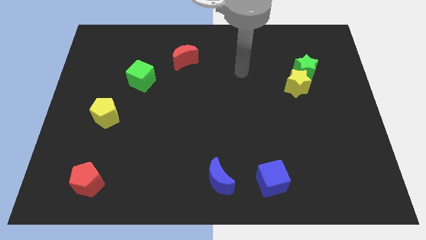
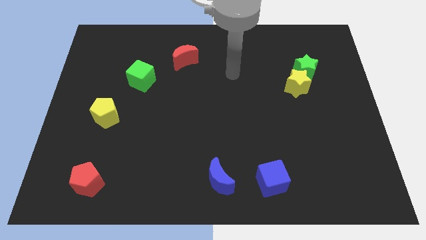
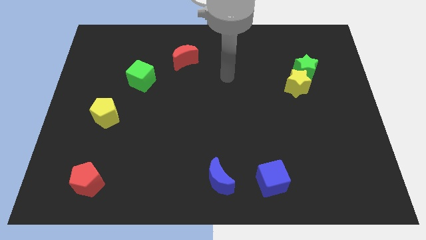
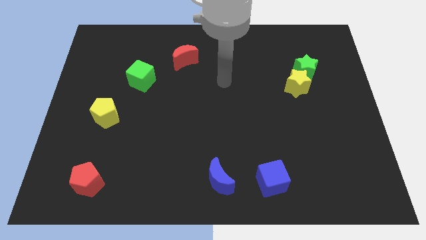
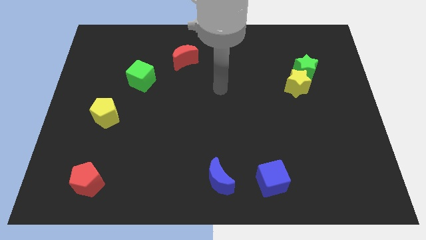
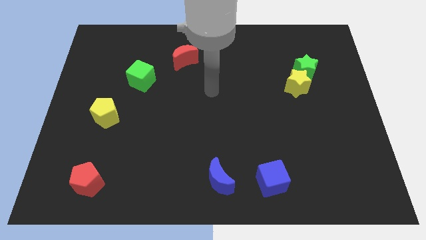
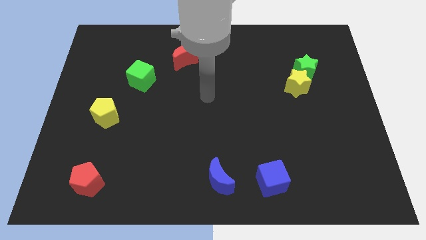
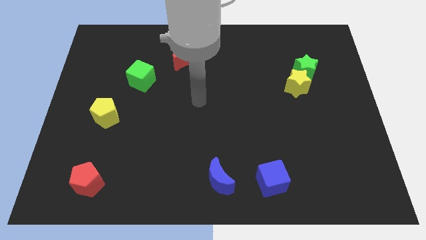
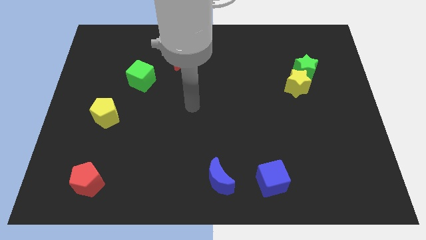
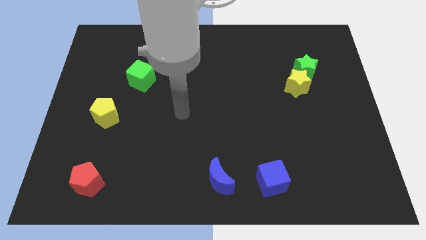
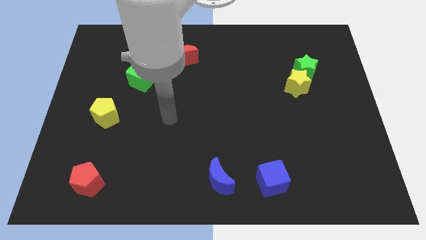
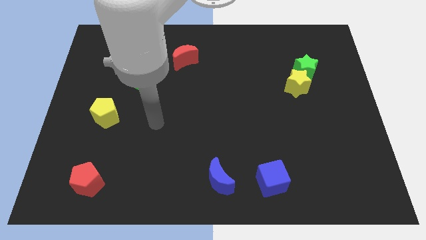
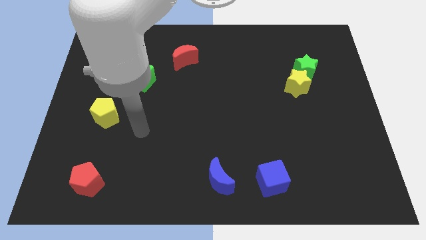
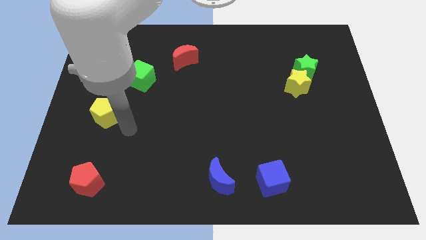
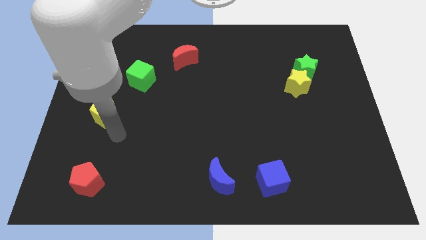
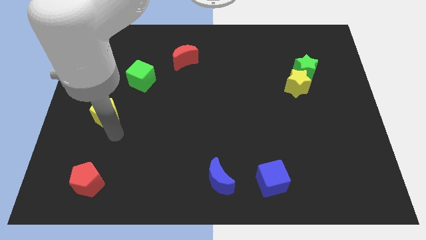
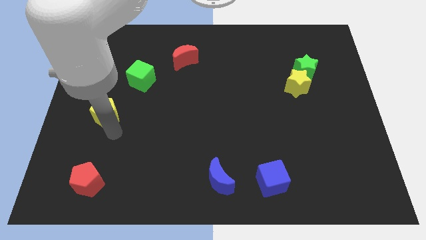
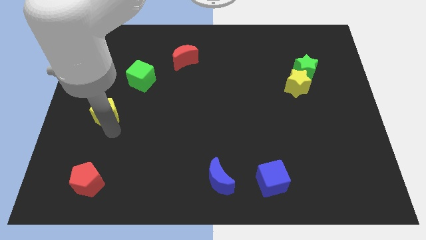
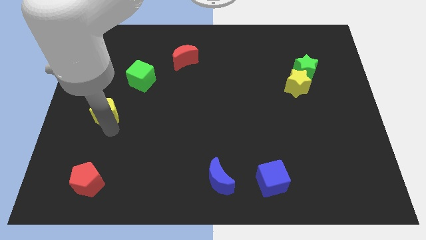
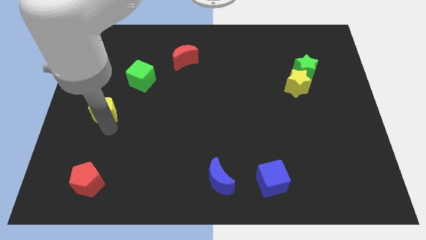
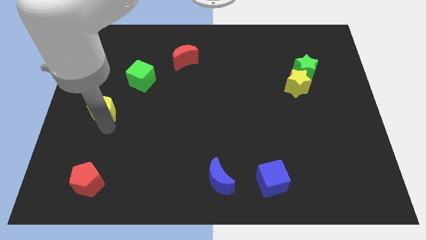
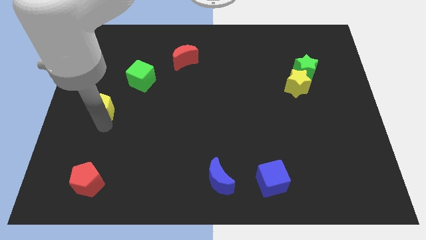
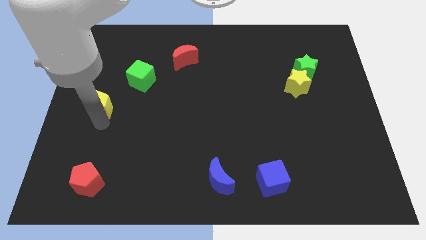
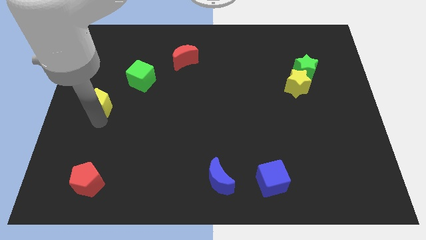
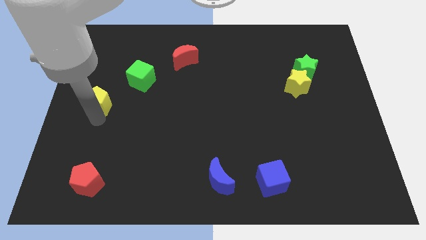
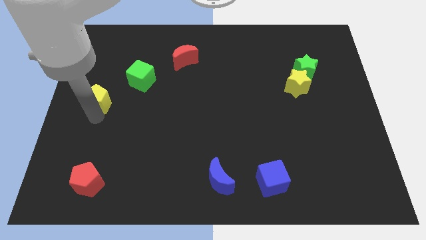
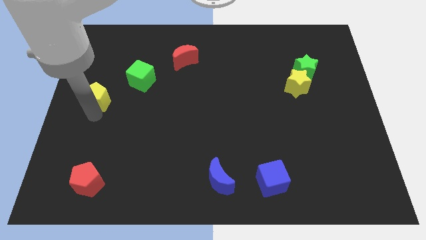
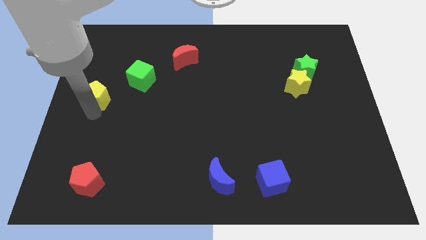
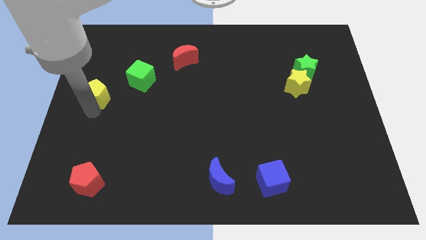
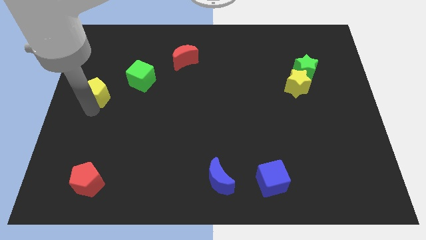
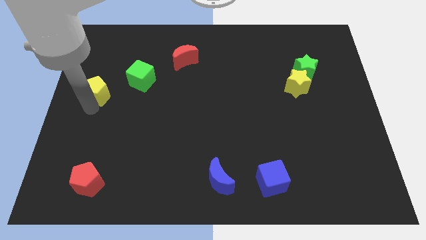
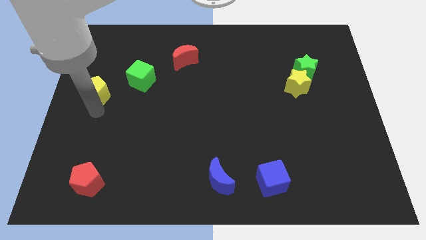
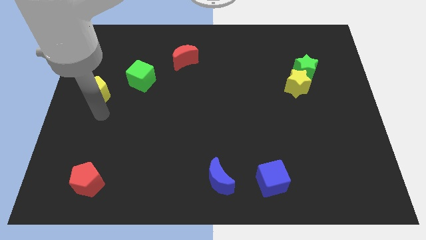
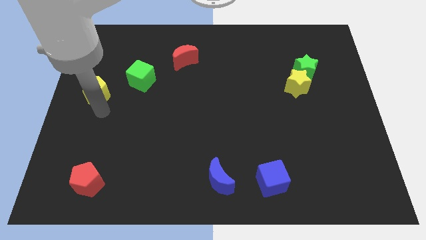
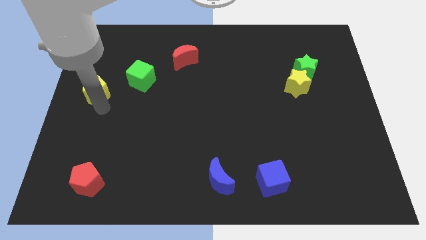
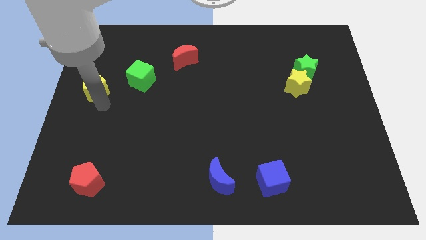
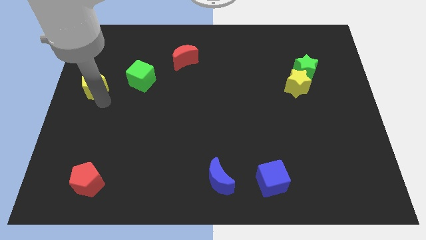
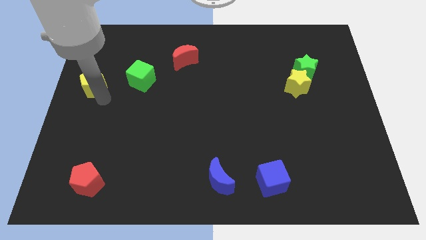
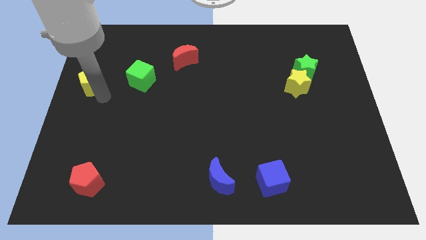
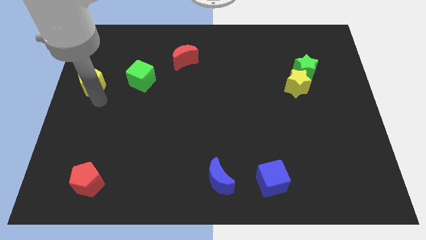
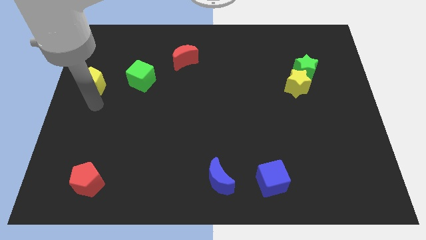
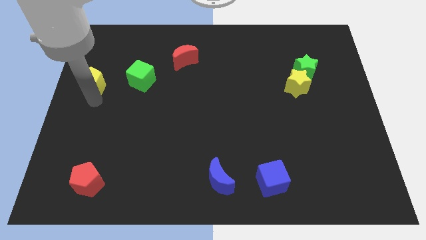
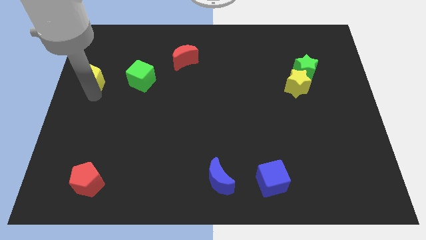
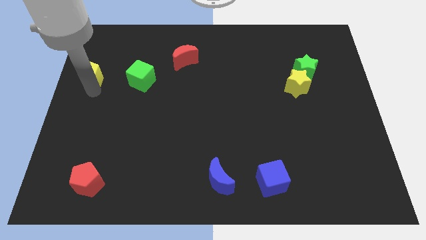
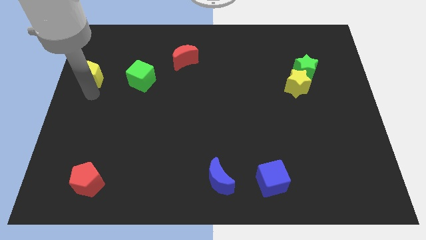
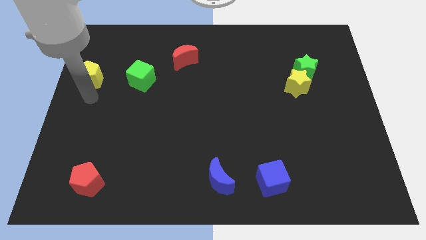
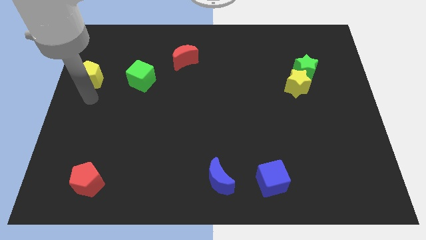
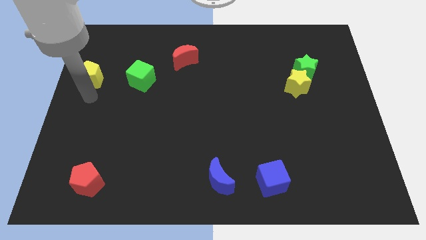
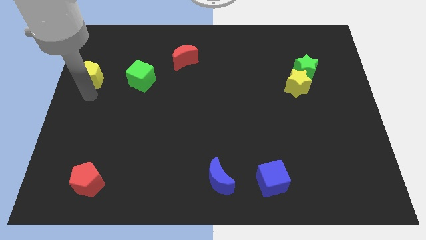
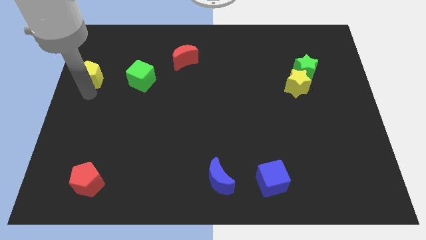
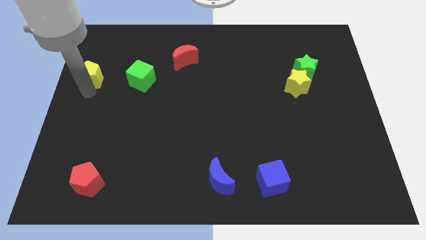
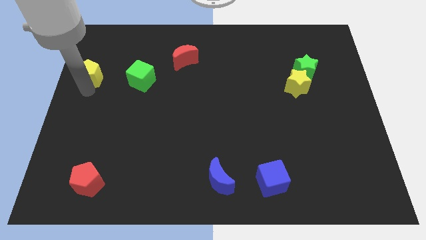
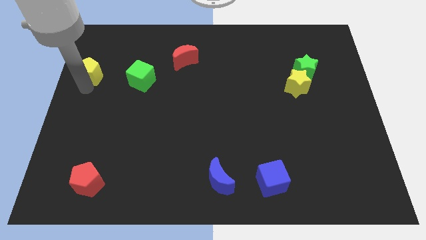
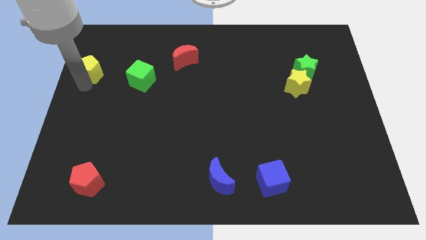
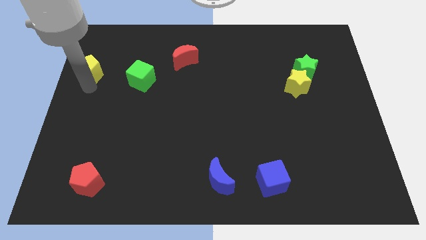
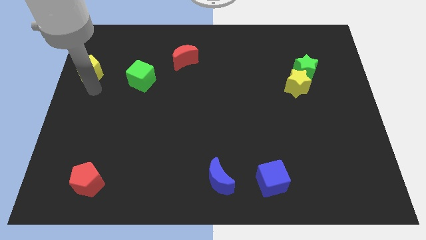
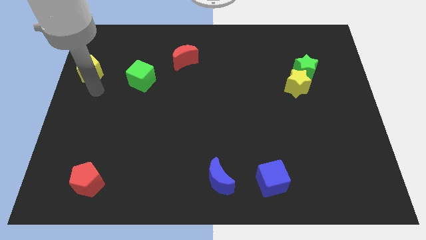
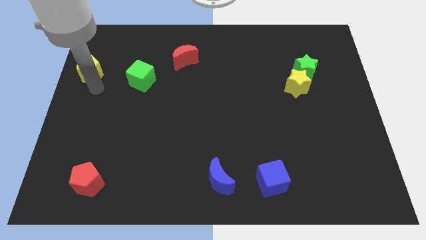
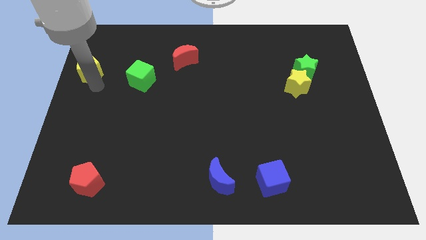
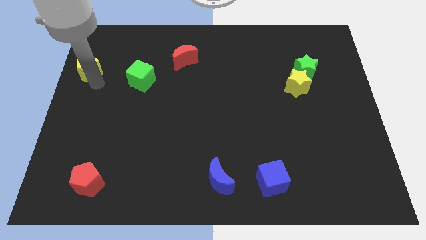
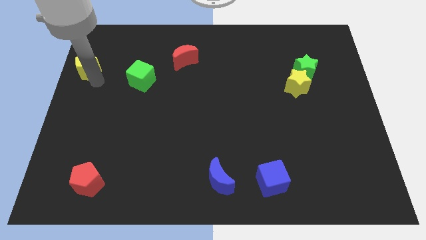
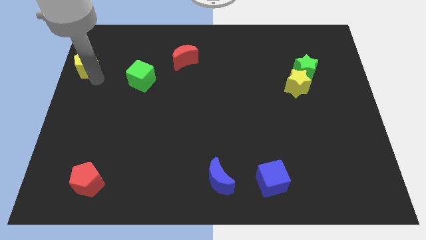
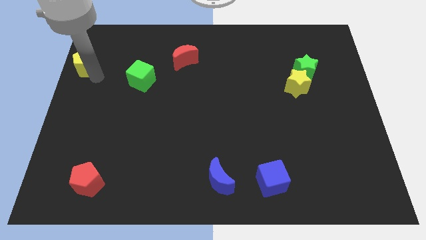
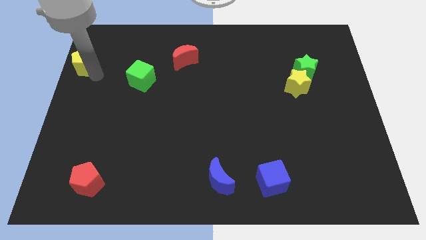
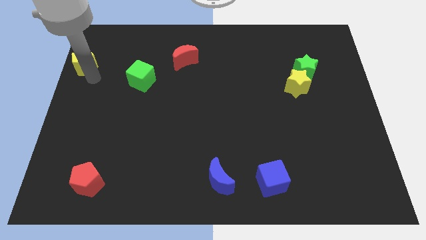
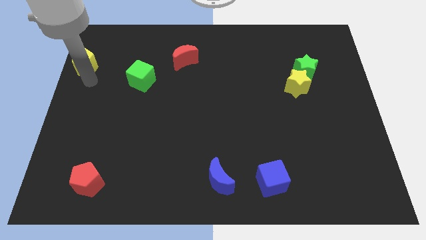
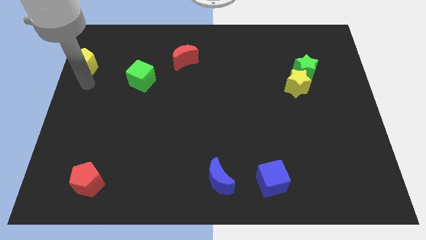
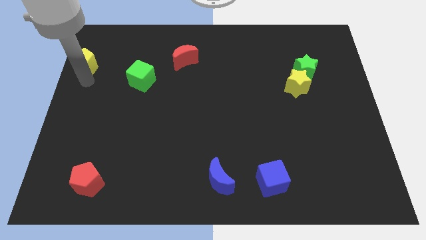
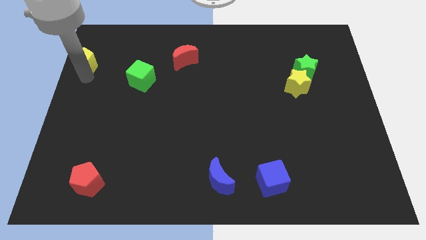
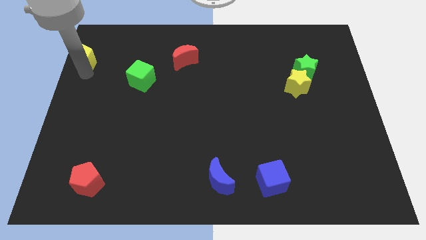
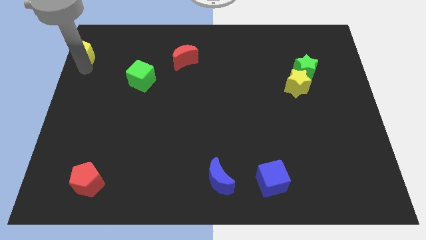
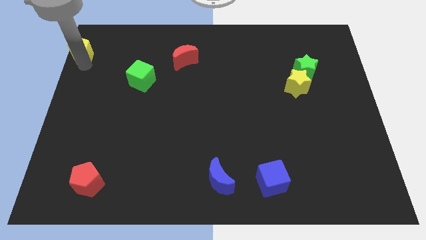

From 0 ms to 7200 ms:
move the yellow pentagon to the top left of the board
